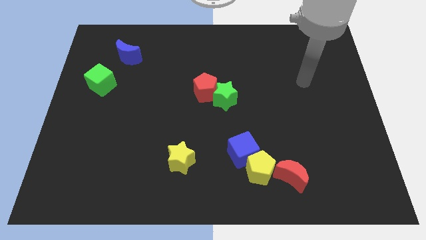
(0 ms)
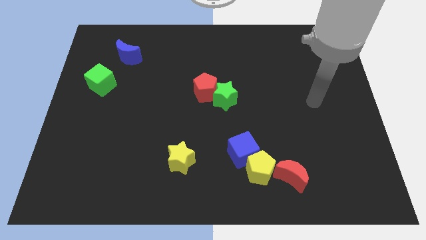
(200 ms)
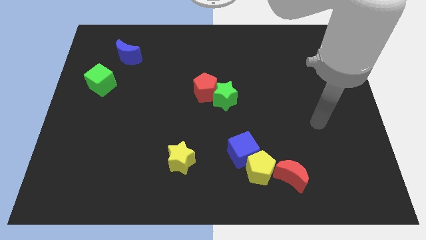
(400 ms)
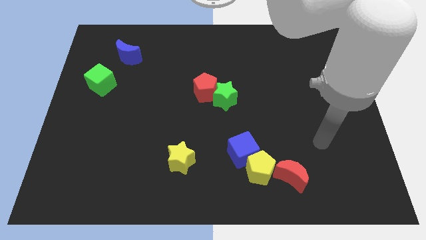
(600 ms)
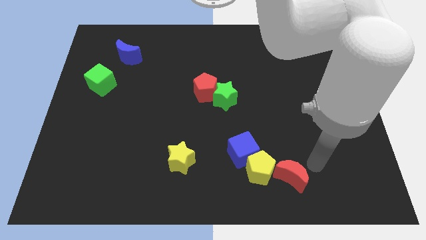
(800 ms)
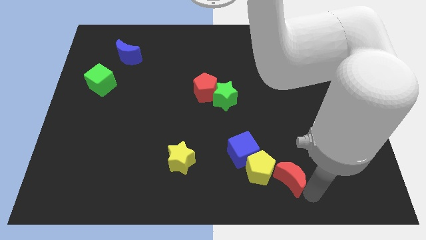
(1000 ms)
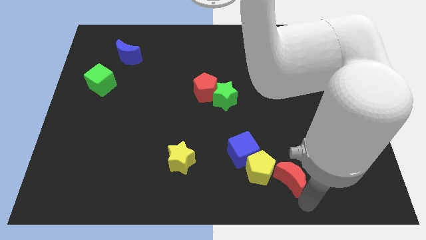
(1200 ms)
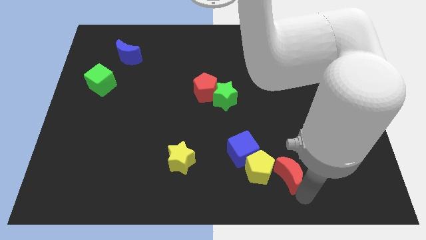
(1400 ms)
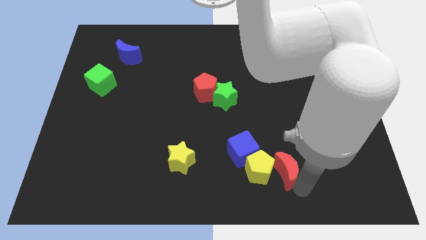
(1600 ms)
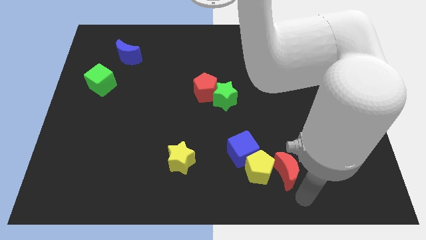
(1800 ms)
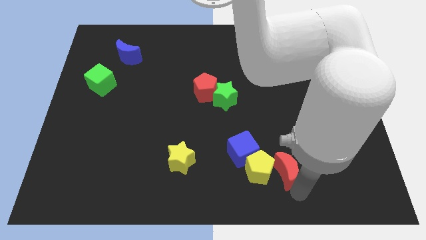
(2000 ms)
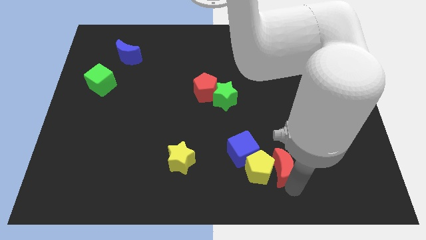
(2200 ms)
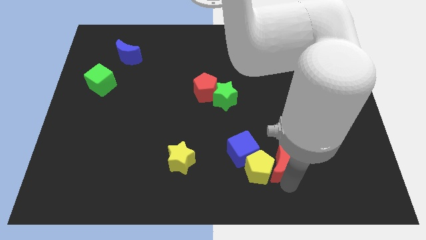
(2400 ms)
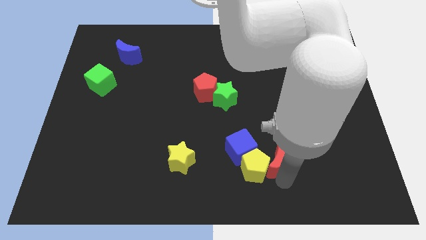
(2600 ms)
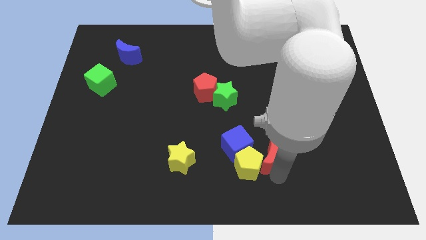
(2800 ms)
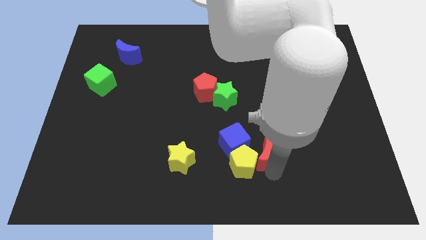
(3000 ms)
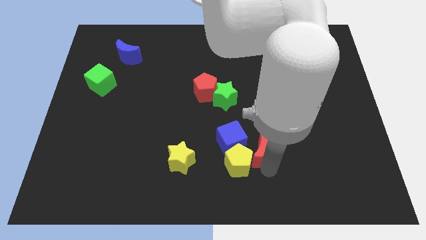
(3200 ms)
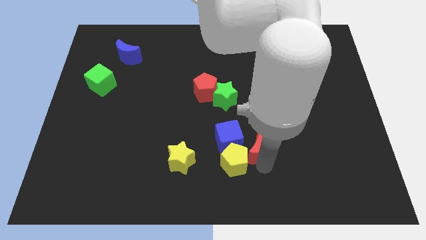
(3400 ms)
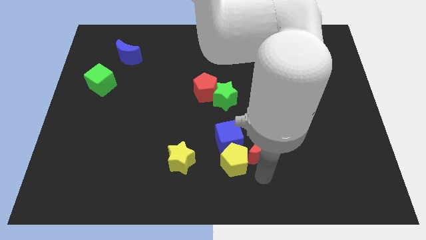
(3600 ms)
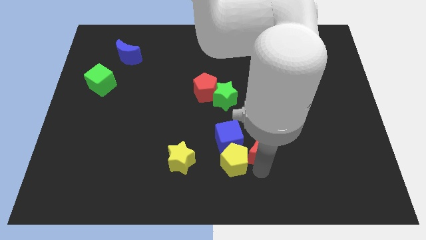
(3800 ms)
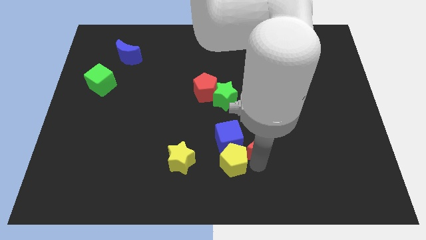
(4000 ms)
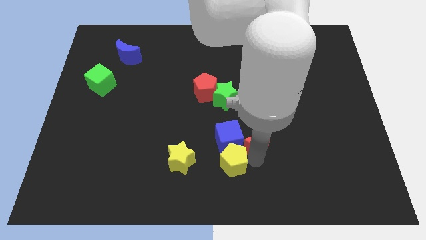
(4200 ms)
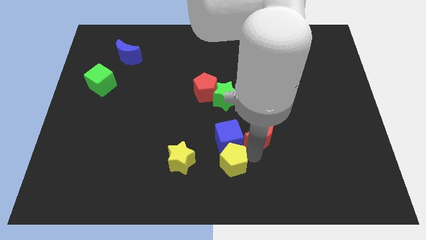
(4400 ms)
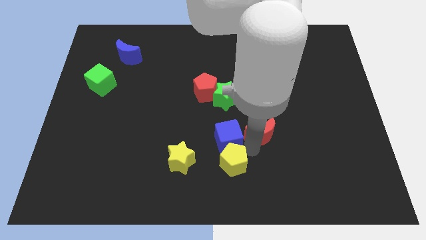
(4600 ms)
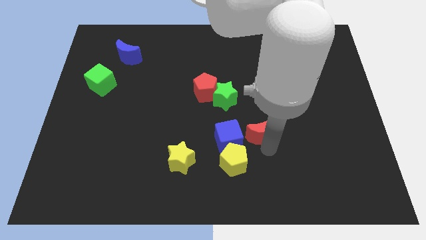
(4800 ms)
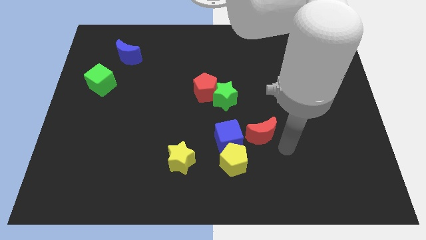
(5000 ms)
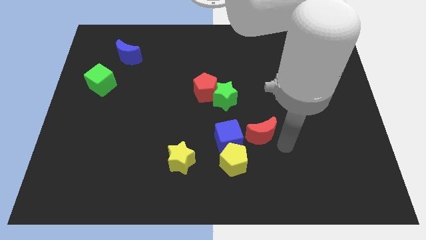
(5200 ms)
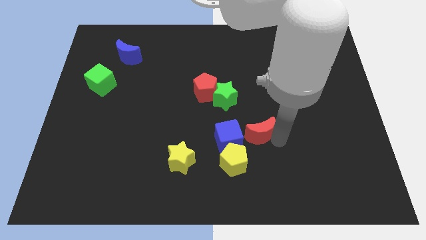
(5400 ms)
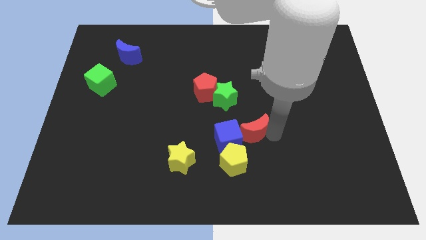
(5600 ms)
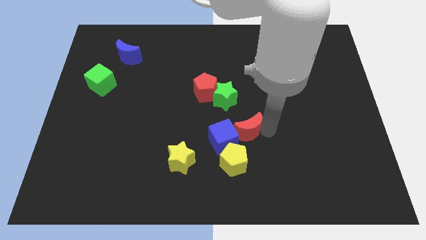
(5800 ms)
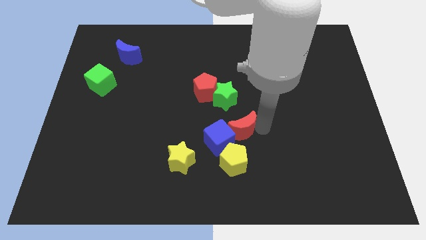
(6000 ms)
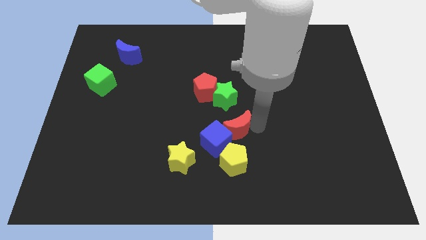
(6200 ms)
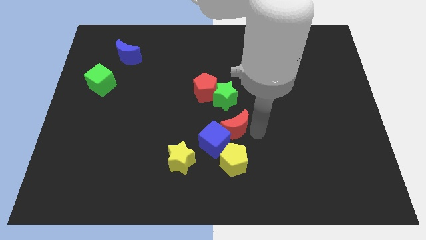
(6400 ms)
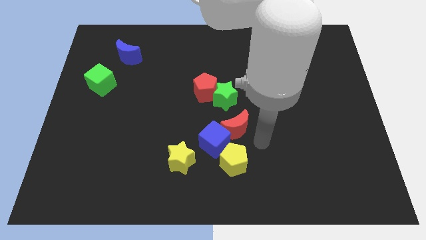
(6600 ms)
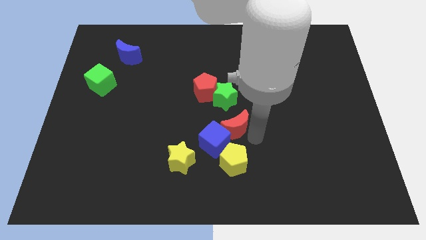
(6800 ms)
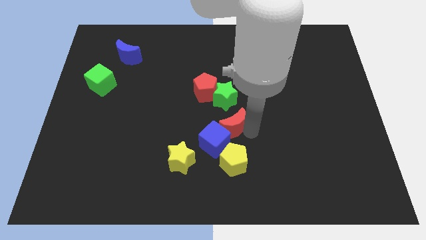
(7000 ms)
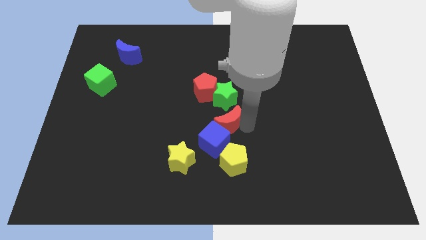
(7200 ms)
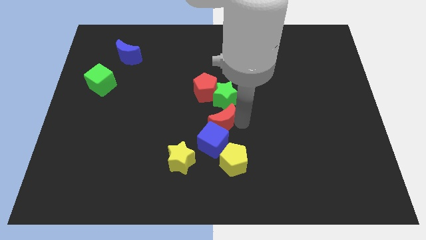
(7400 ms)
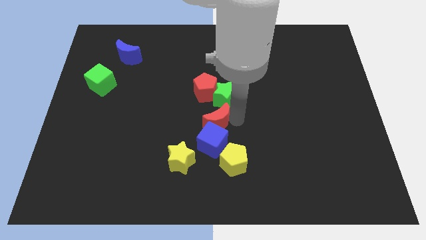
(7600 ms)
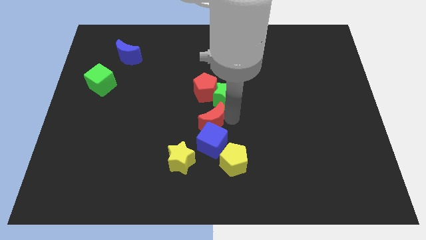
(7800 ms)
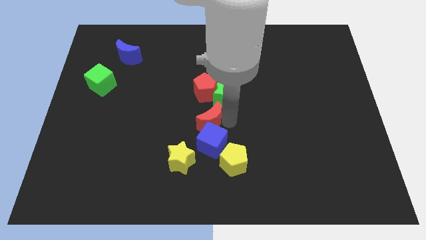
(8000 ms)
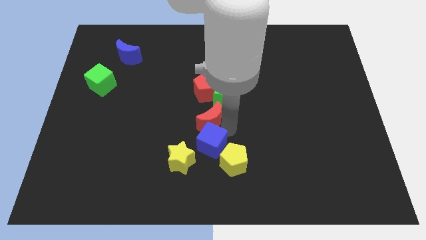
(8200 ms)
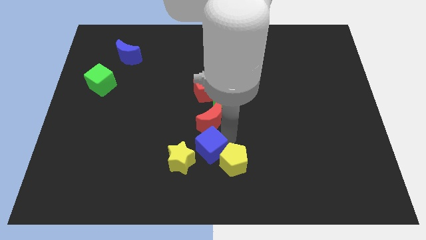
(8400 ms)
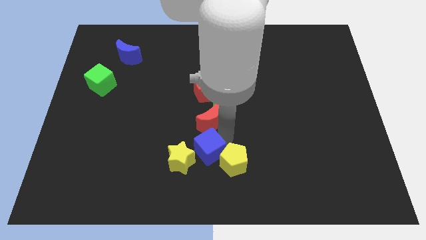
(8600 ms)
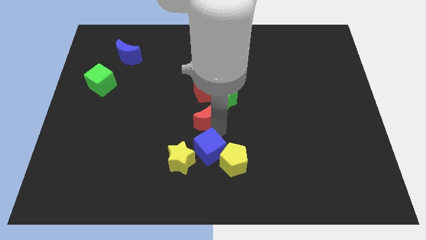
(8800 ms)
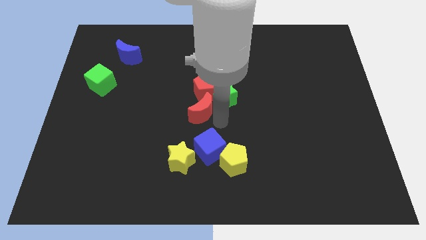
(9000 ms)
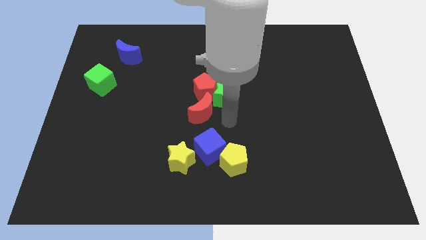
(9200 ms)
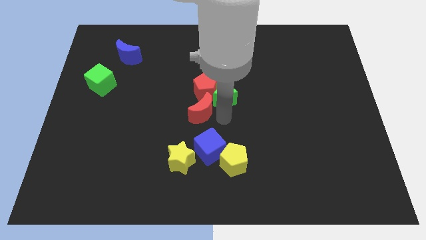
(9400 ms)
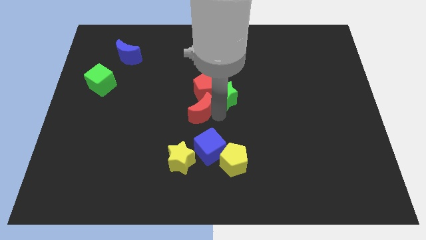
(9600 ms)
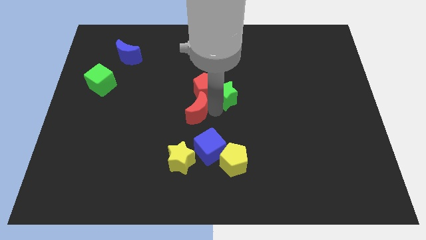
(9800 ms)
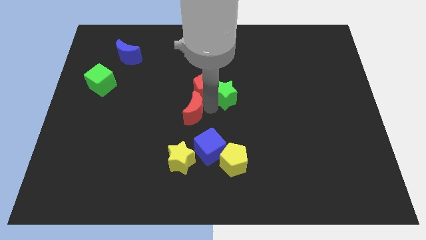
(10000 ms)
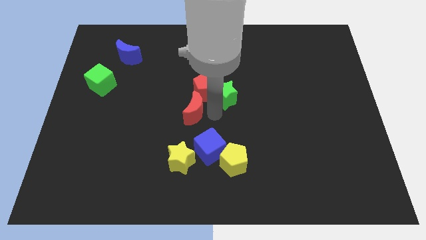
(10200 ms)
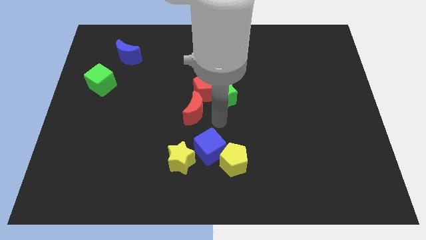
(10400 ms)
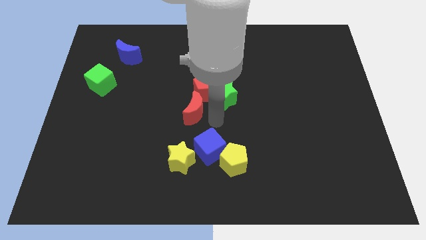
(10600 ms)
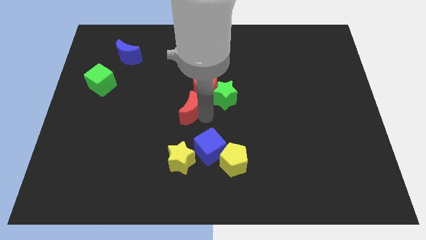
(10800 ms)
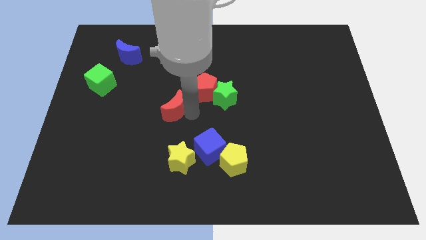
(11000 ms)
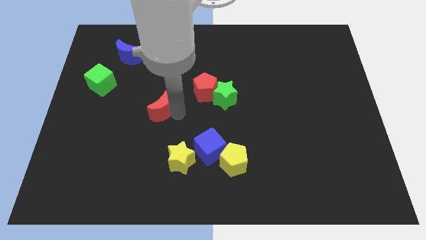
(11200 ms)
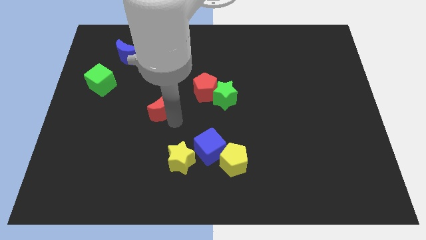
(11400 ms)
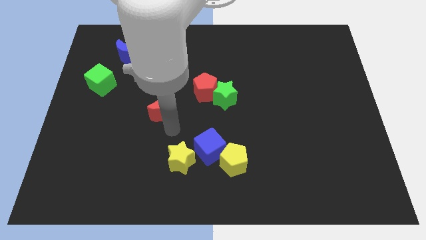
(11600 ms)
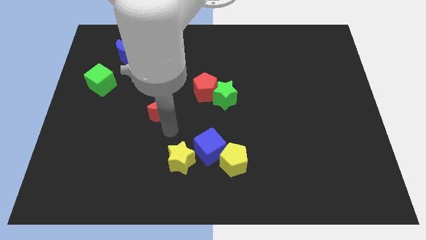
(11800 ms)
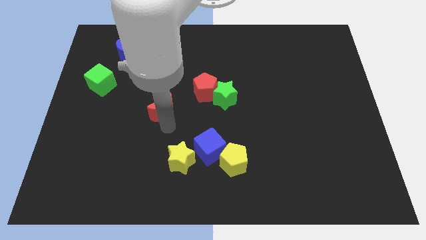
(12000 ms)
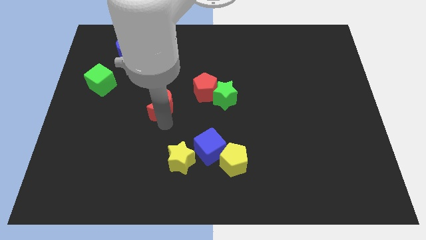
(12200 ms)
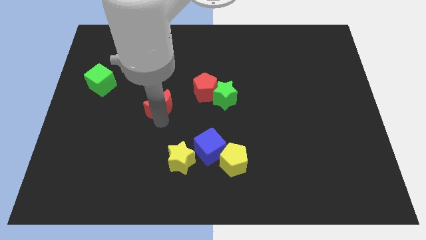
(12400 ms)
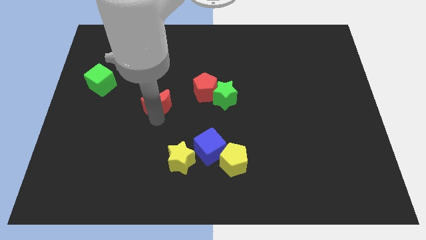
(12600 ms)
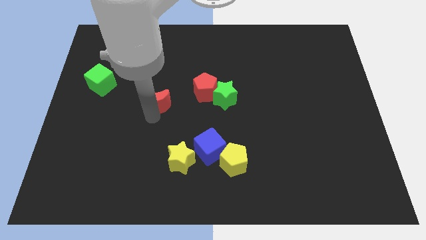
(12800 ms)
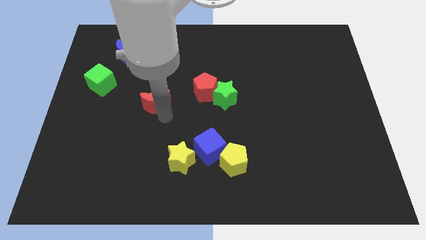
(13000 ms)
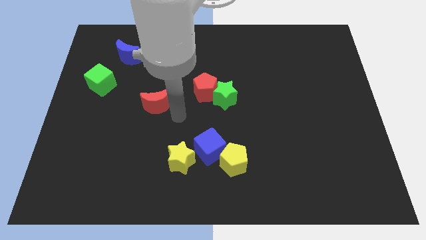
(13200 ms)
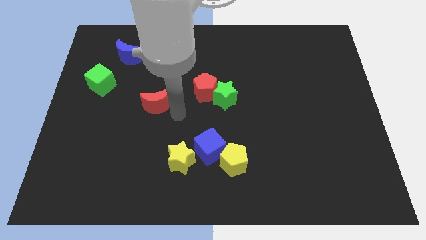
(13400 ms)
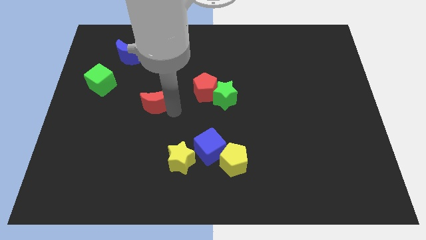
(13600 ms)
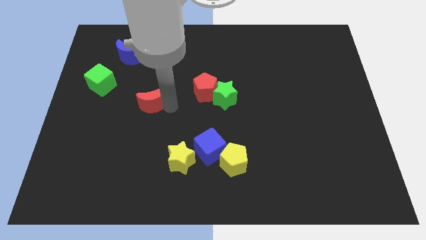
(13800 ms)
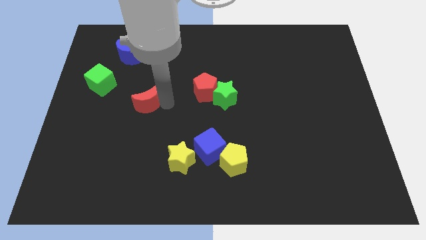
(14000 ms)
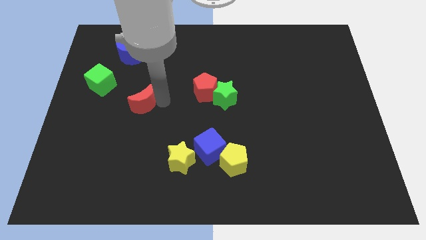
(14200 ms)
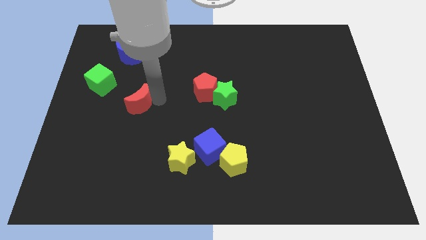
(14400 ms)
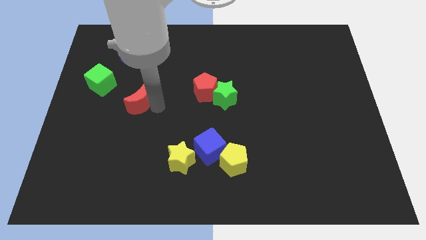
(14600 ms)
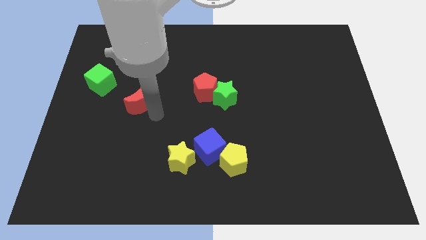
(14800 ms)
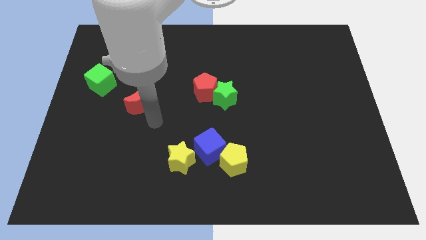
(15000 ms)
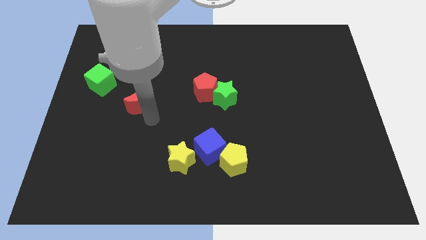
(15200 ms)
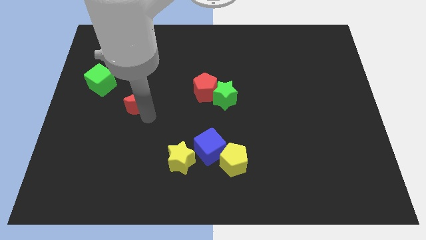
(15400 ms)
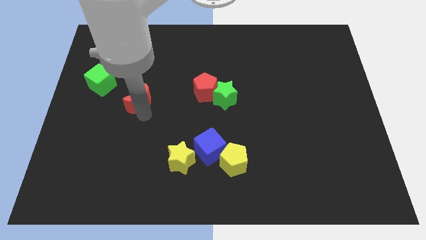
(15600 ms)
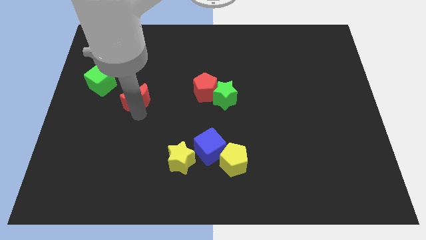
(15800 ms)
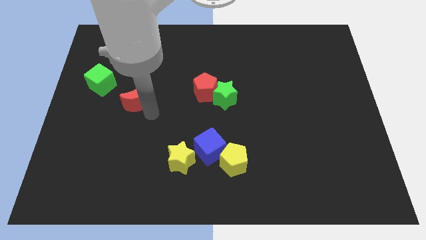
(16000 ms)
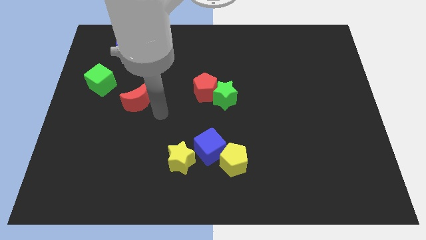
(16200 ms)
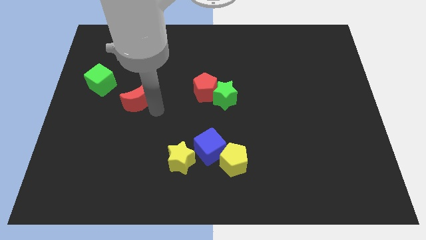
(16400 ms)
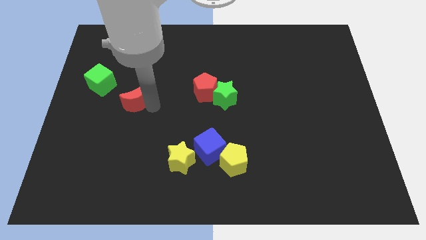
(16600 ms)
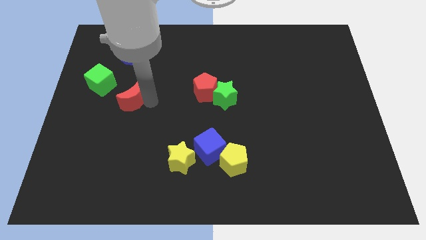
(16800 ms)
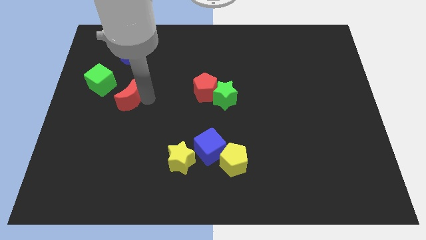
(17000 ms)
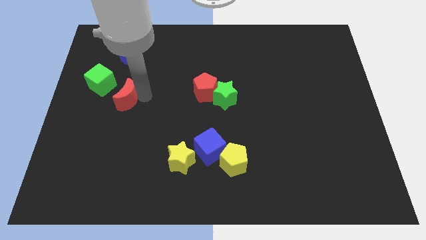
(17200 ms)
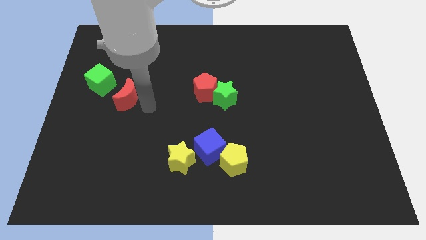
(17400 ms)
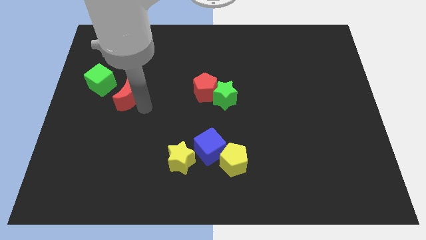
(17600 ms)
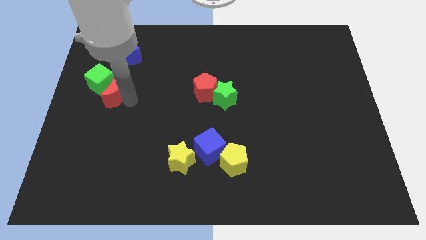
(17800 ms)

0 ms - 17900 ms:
put the red moon close to the green cube
